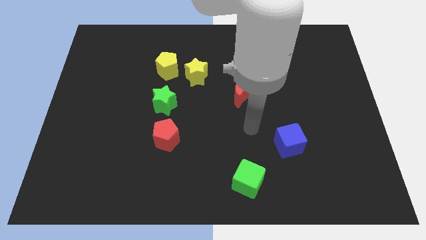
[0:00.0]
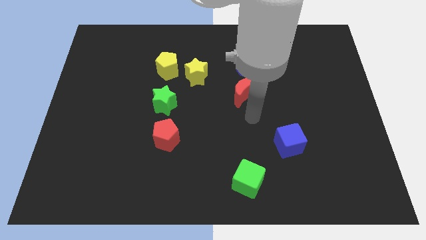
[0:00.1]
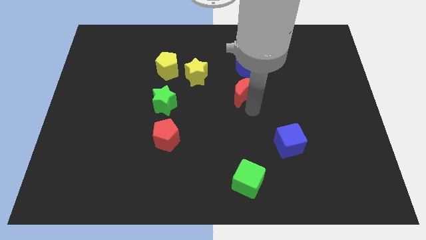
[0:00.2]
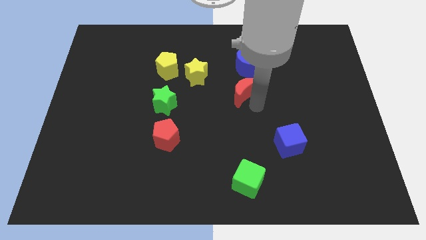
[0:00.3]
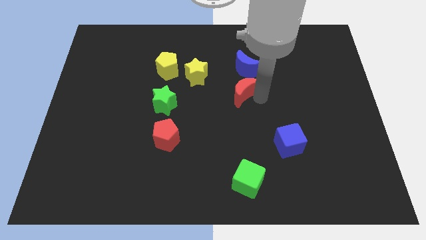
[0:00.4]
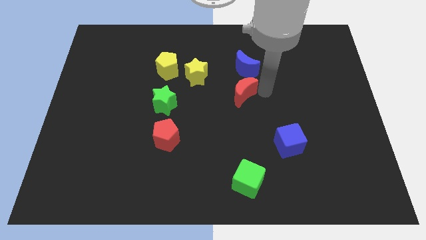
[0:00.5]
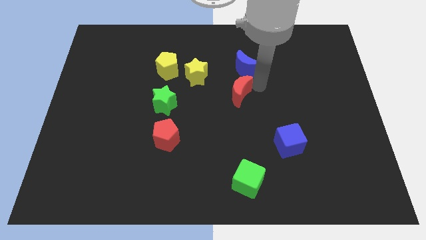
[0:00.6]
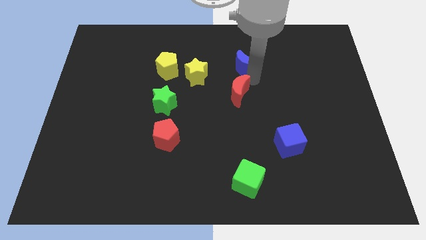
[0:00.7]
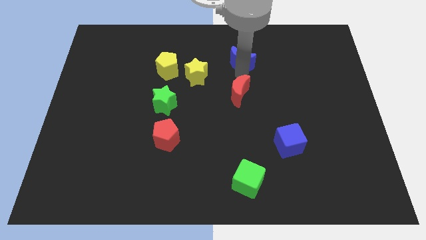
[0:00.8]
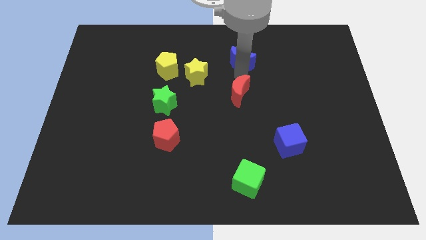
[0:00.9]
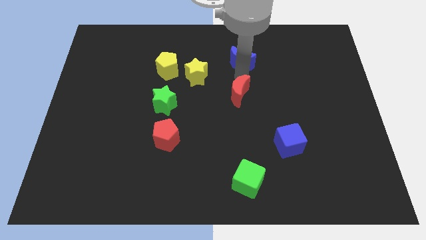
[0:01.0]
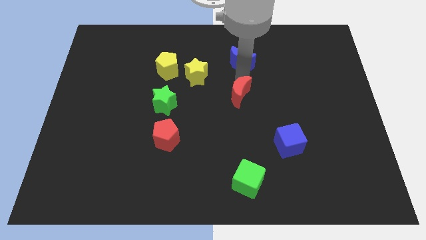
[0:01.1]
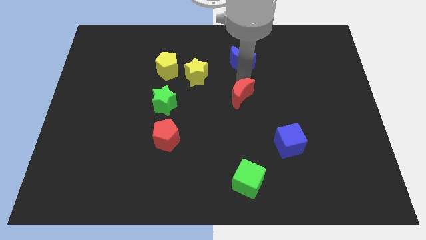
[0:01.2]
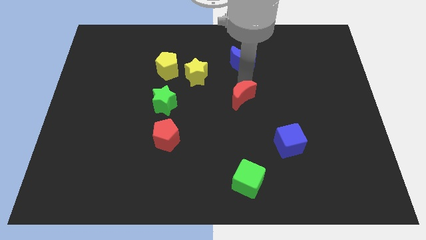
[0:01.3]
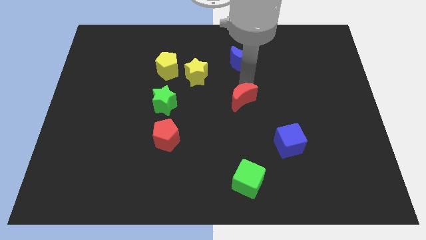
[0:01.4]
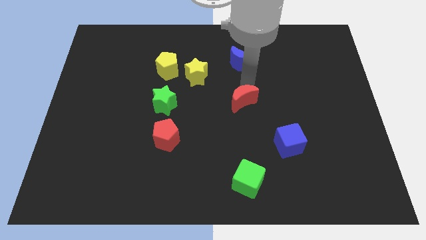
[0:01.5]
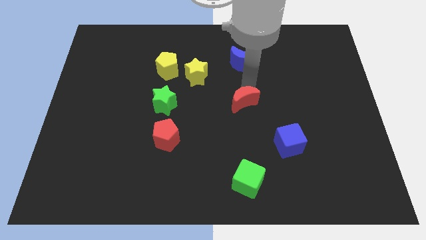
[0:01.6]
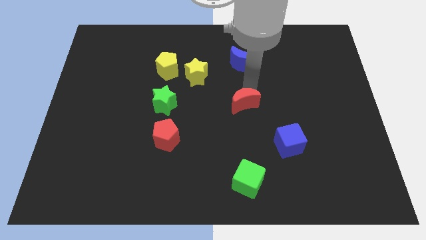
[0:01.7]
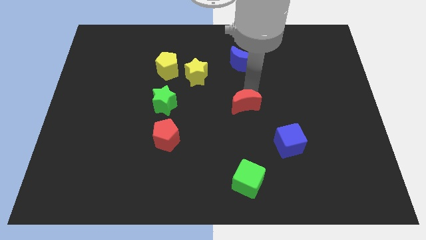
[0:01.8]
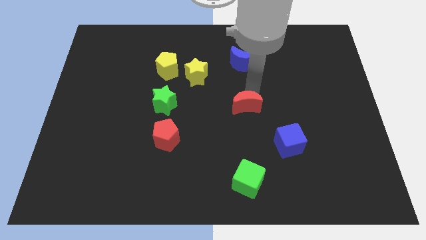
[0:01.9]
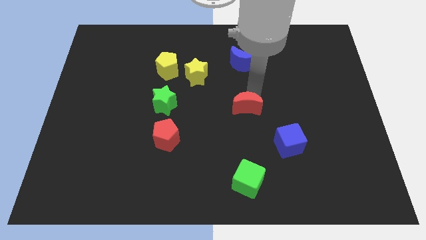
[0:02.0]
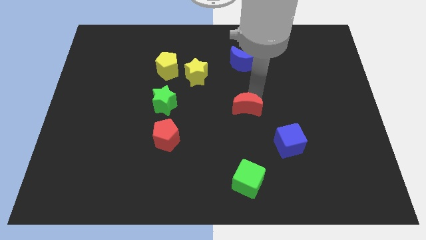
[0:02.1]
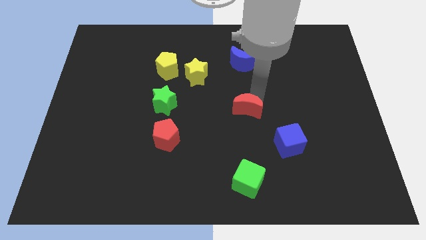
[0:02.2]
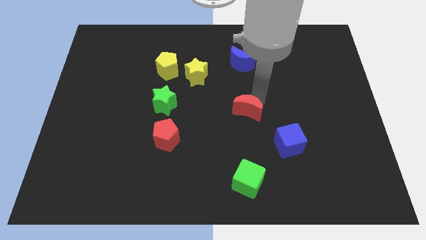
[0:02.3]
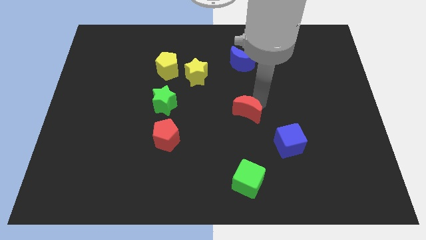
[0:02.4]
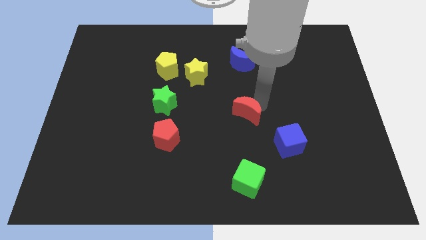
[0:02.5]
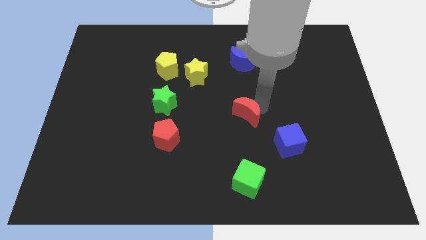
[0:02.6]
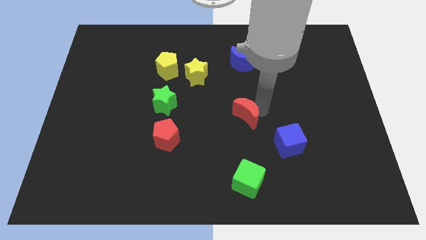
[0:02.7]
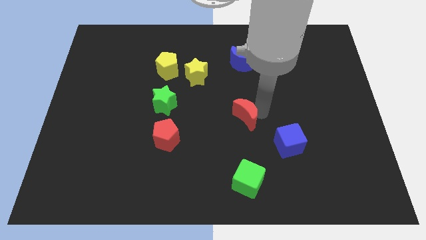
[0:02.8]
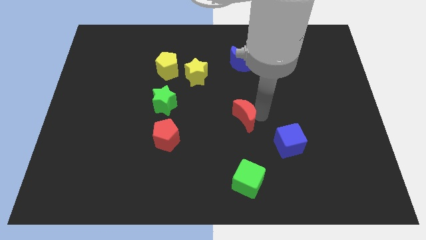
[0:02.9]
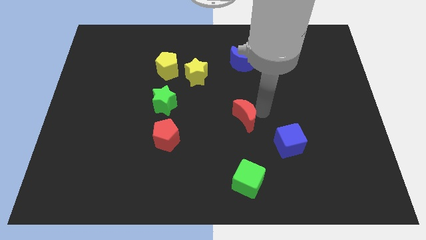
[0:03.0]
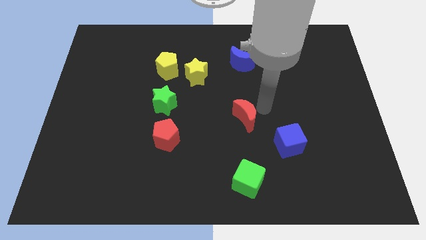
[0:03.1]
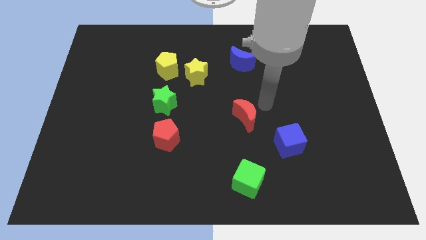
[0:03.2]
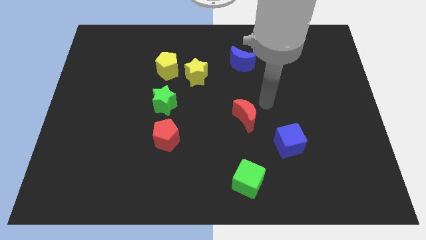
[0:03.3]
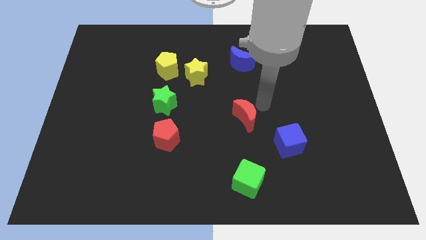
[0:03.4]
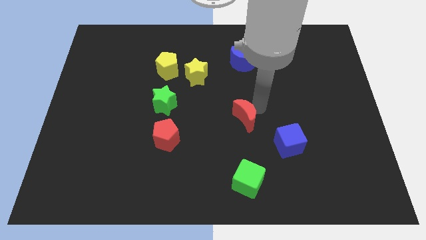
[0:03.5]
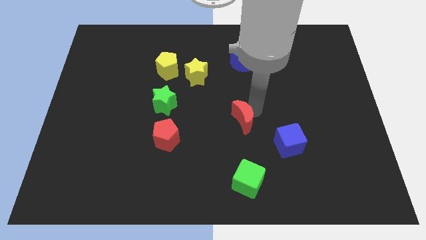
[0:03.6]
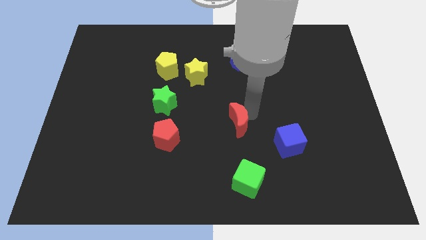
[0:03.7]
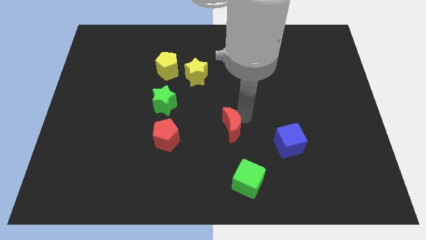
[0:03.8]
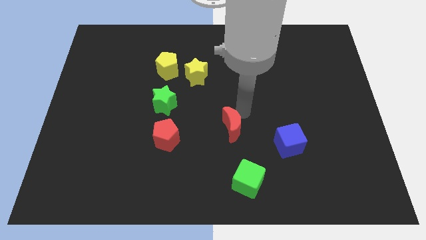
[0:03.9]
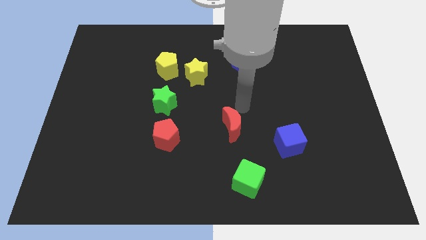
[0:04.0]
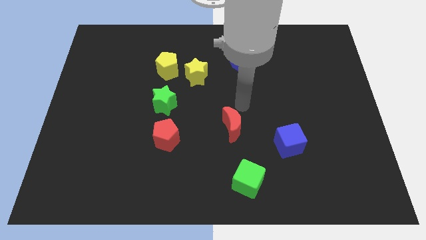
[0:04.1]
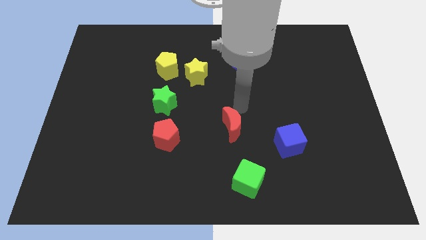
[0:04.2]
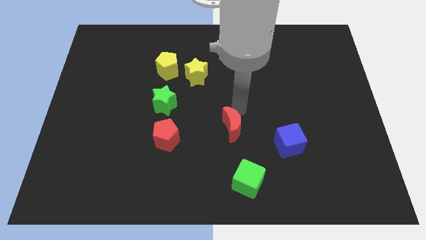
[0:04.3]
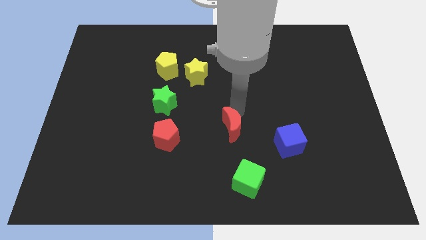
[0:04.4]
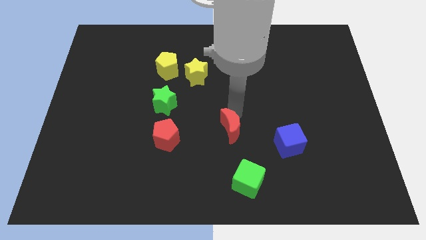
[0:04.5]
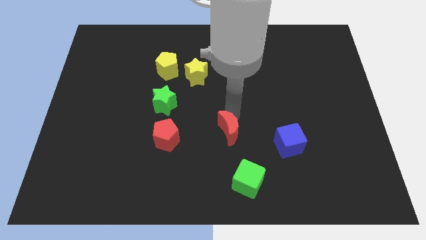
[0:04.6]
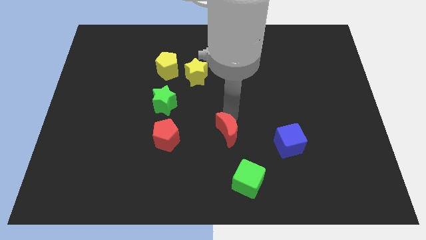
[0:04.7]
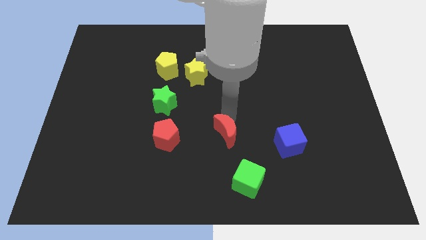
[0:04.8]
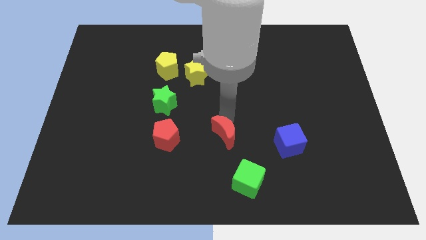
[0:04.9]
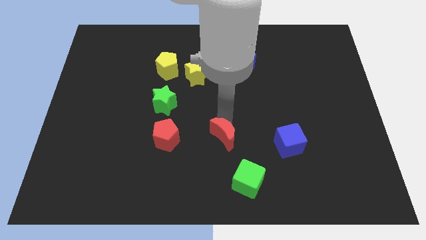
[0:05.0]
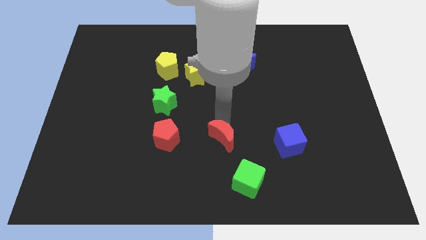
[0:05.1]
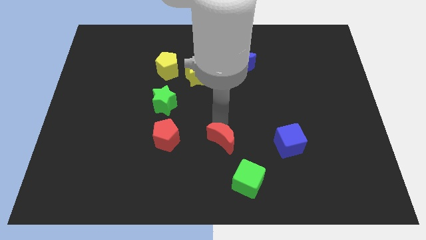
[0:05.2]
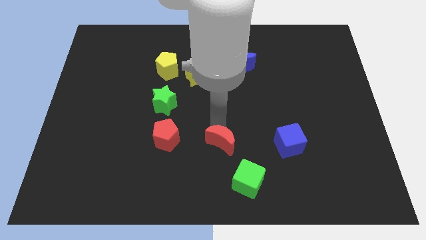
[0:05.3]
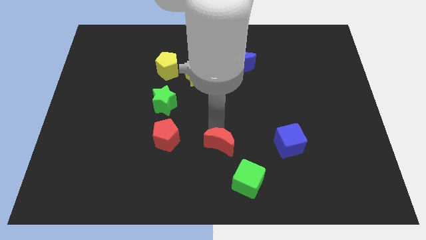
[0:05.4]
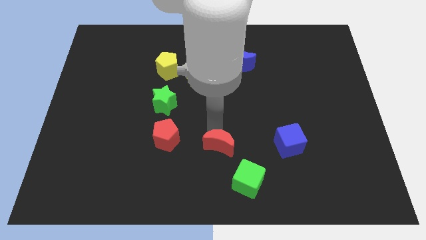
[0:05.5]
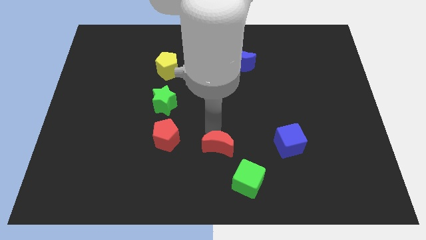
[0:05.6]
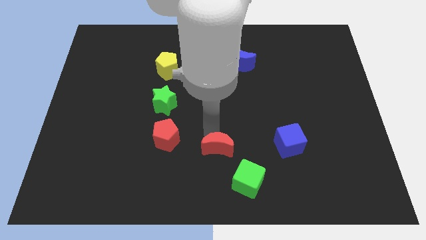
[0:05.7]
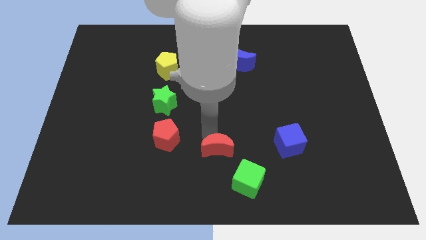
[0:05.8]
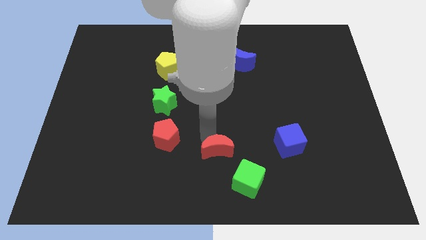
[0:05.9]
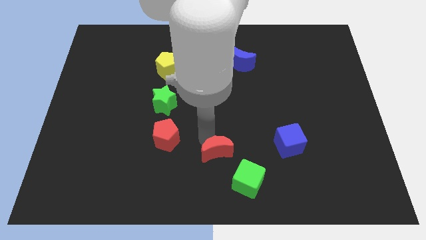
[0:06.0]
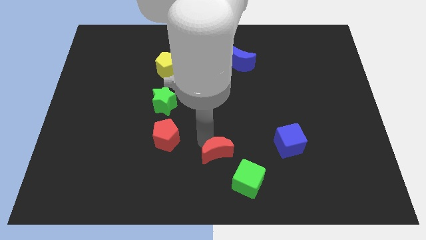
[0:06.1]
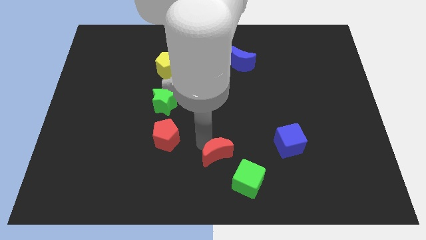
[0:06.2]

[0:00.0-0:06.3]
put the red moon to the bottom
